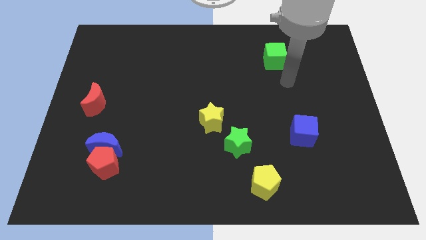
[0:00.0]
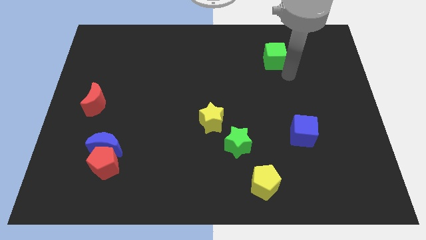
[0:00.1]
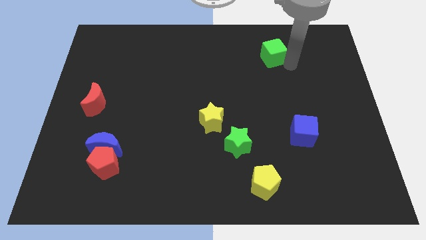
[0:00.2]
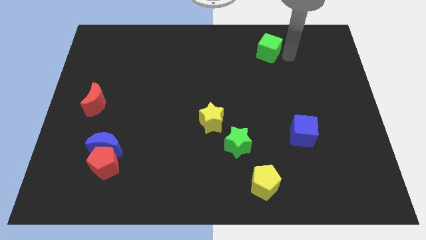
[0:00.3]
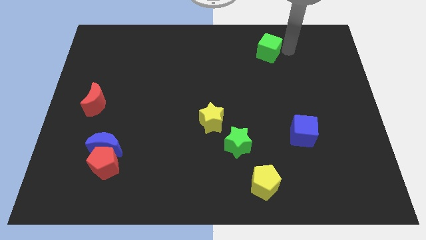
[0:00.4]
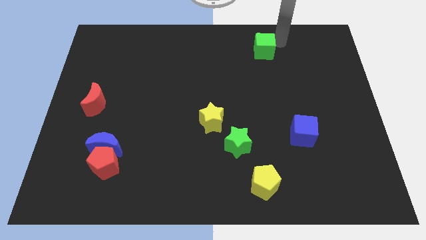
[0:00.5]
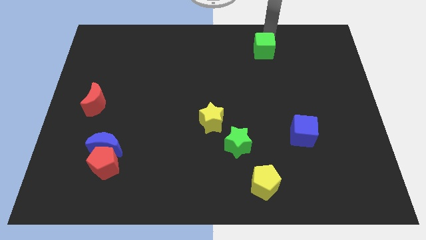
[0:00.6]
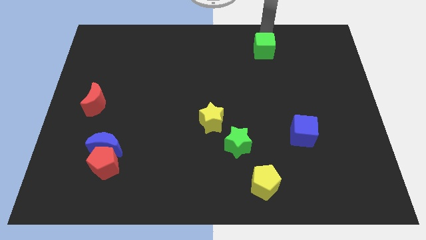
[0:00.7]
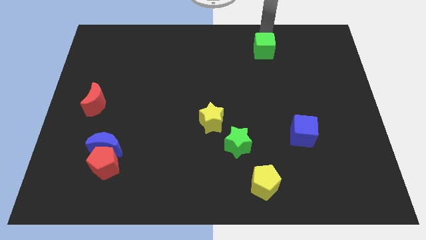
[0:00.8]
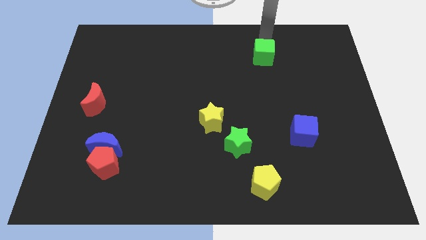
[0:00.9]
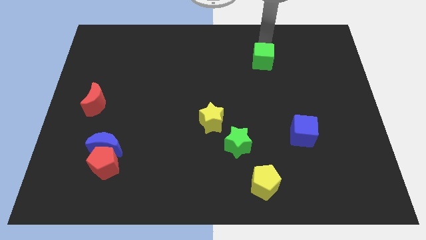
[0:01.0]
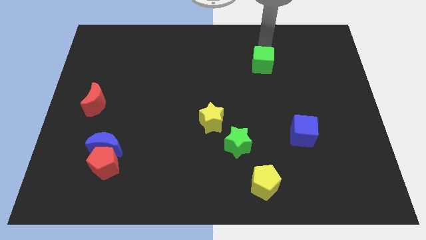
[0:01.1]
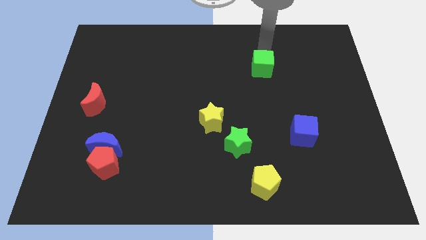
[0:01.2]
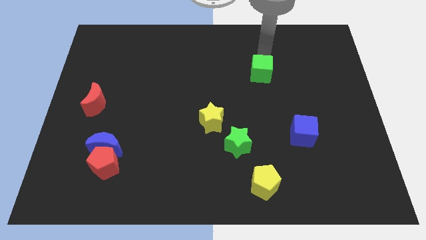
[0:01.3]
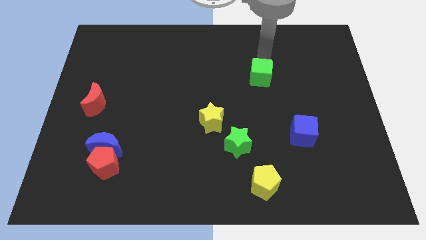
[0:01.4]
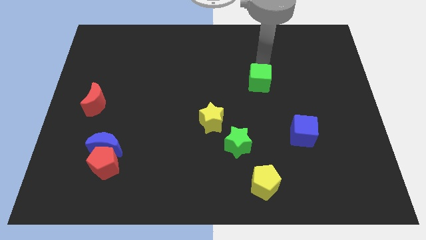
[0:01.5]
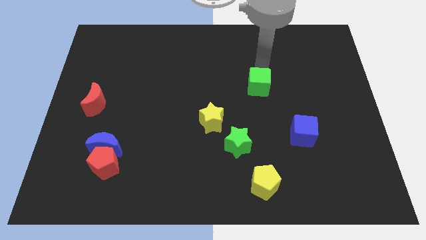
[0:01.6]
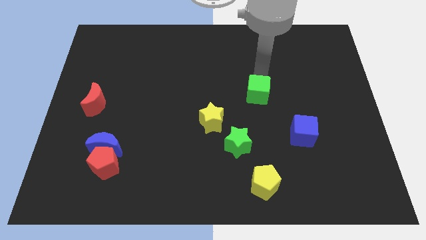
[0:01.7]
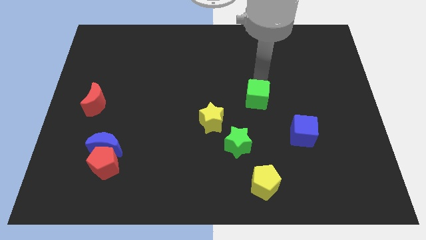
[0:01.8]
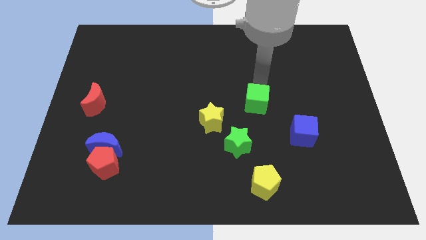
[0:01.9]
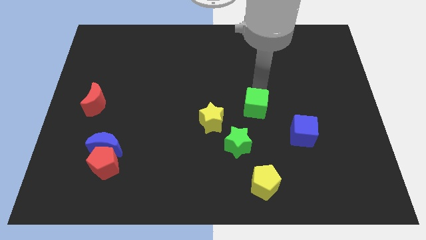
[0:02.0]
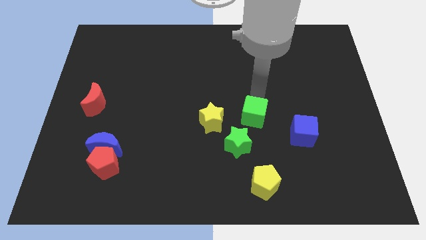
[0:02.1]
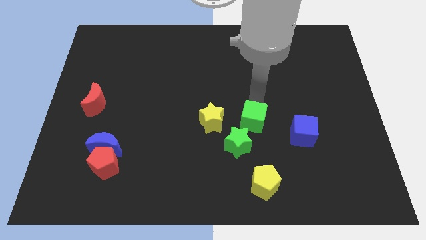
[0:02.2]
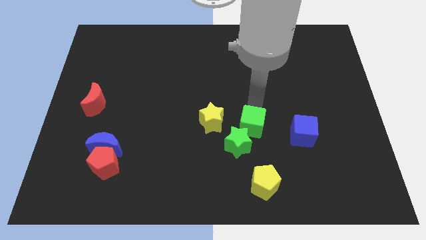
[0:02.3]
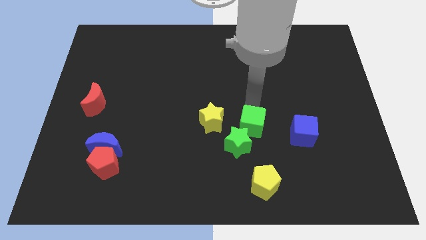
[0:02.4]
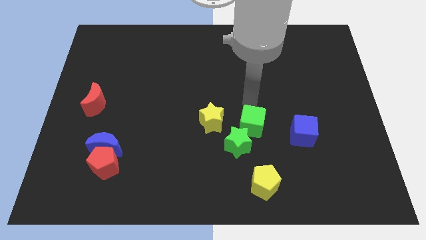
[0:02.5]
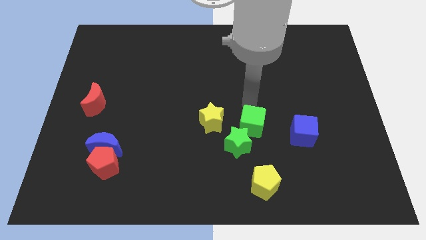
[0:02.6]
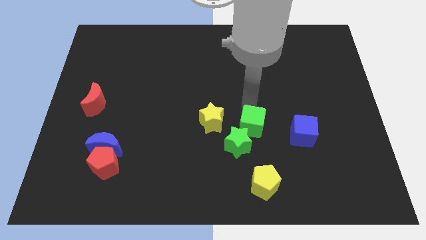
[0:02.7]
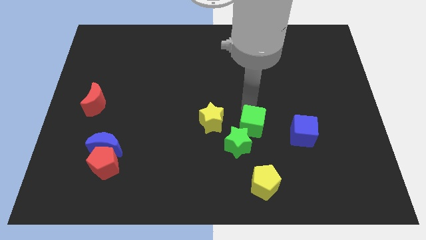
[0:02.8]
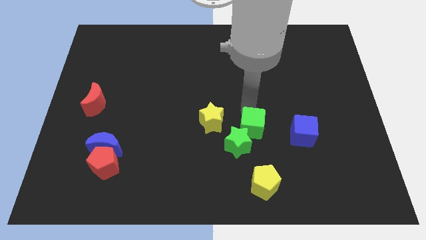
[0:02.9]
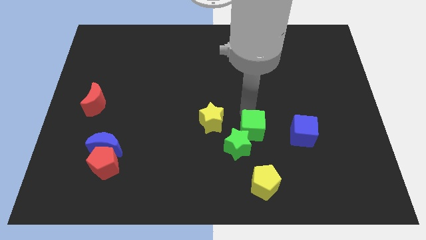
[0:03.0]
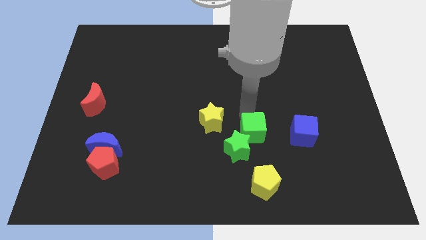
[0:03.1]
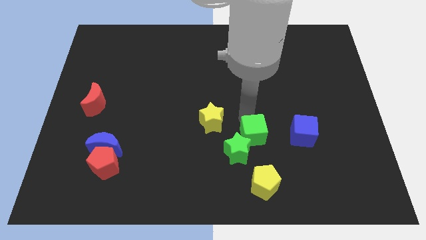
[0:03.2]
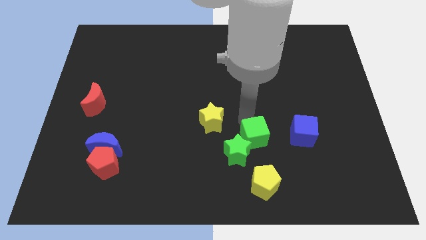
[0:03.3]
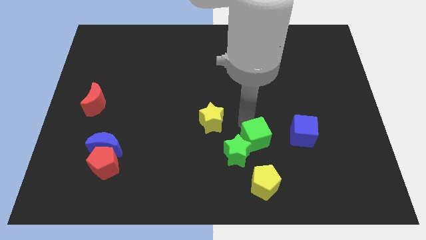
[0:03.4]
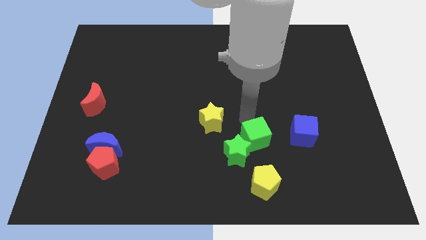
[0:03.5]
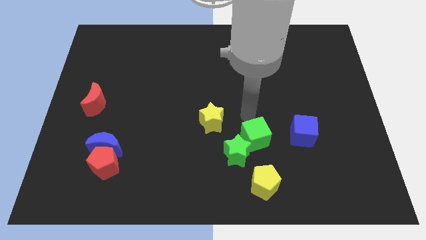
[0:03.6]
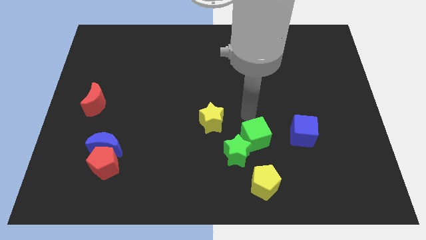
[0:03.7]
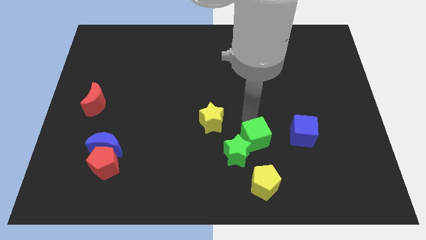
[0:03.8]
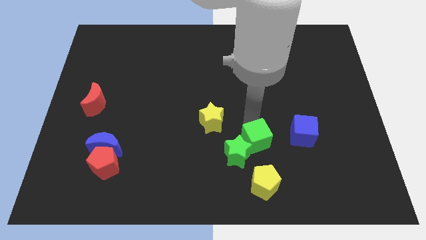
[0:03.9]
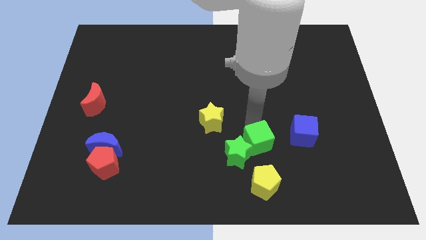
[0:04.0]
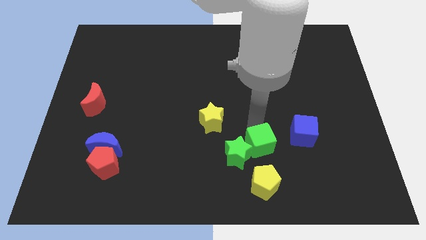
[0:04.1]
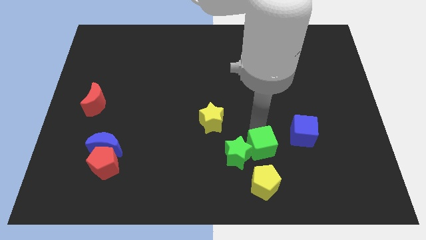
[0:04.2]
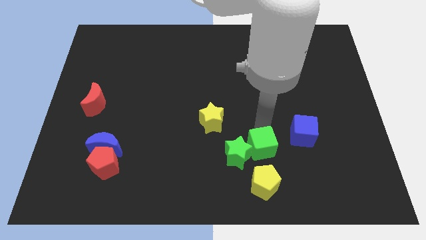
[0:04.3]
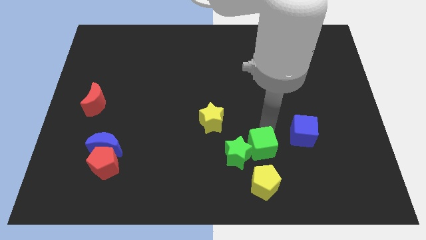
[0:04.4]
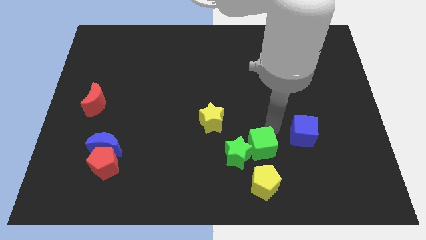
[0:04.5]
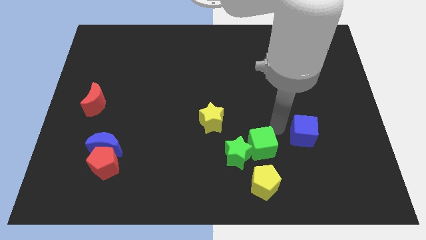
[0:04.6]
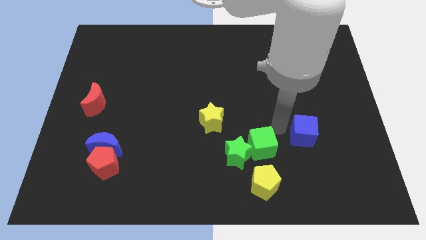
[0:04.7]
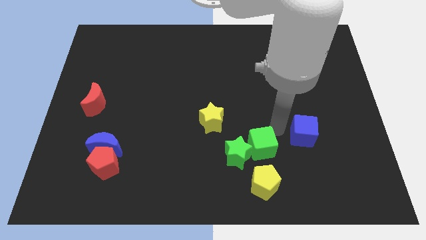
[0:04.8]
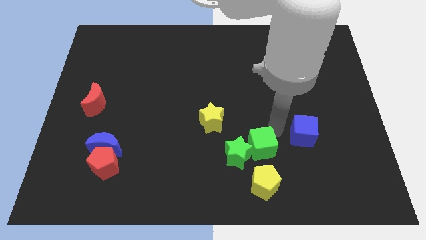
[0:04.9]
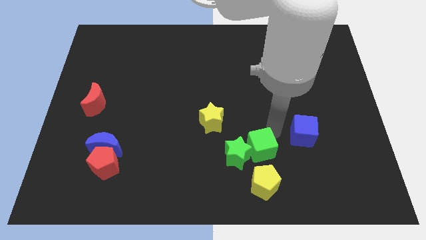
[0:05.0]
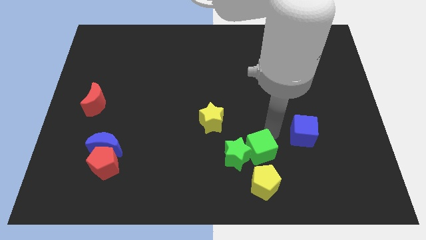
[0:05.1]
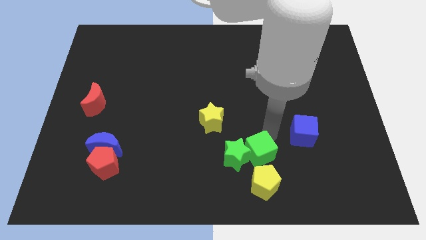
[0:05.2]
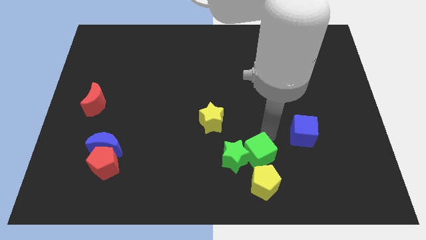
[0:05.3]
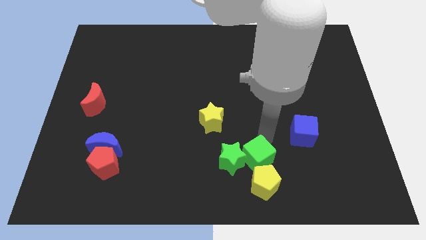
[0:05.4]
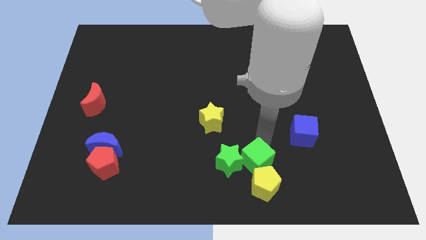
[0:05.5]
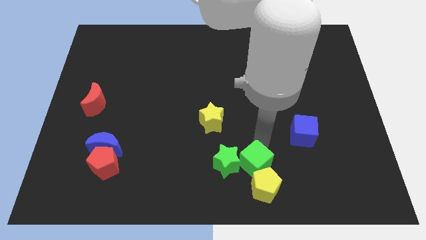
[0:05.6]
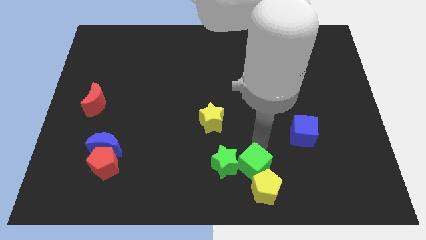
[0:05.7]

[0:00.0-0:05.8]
slide the green cube to the bottom

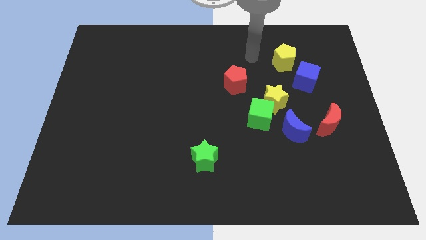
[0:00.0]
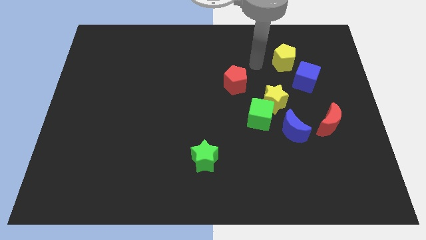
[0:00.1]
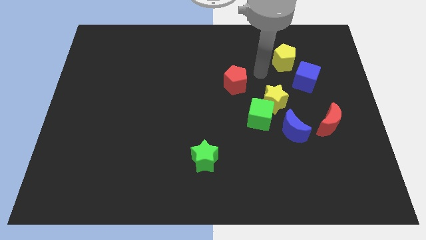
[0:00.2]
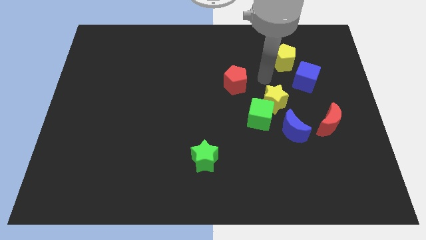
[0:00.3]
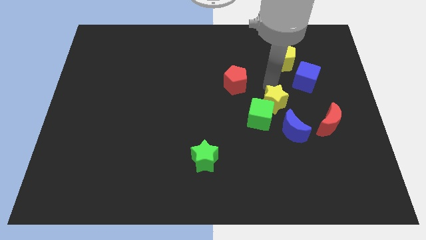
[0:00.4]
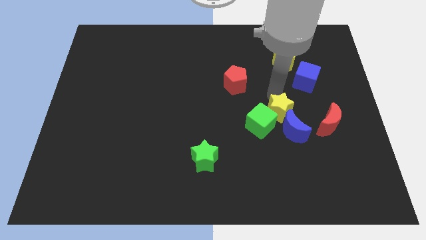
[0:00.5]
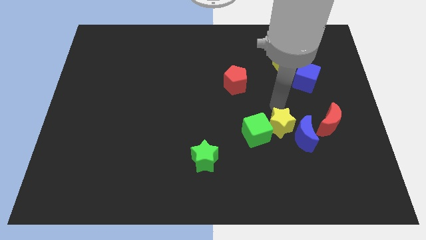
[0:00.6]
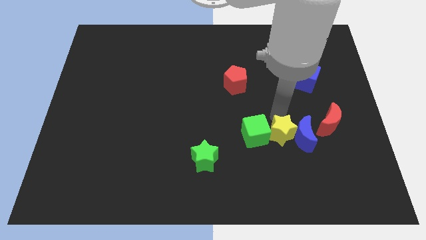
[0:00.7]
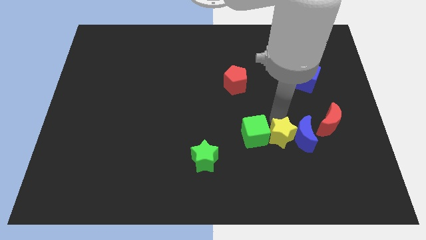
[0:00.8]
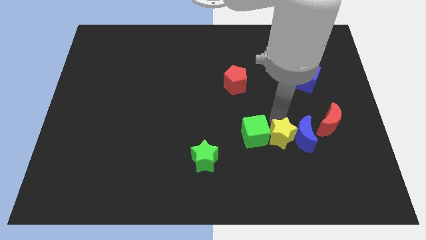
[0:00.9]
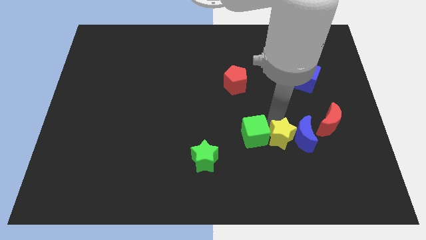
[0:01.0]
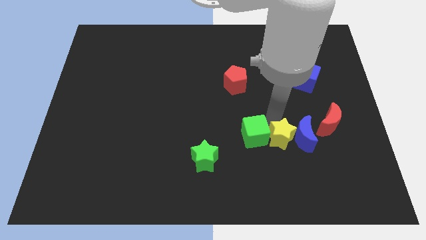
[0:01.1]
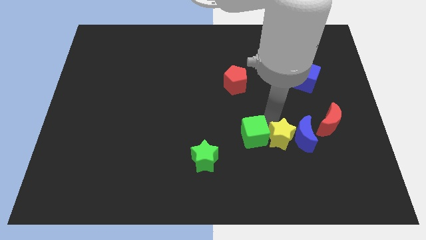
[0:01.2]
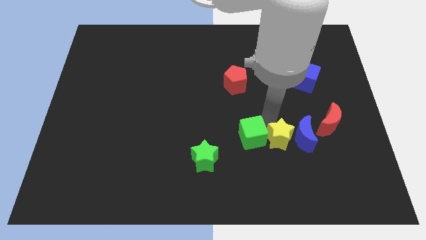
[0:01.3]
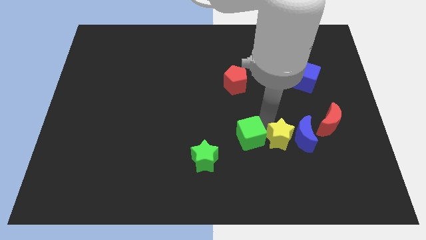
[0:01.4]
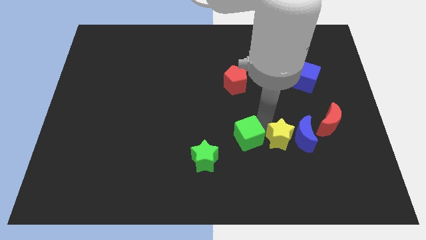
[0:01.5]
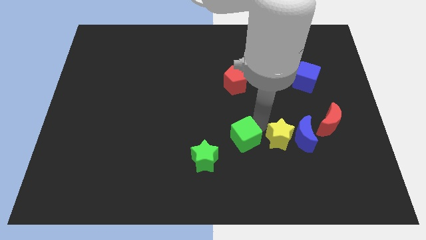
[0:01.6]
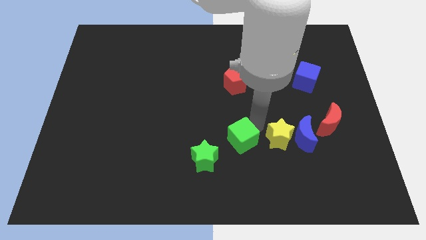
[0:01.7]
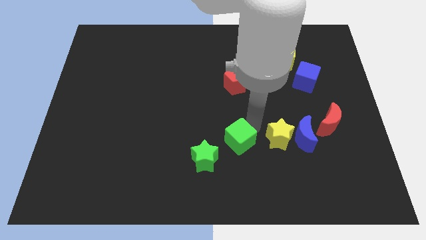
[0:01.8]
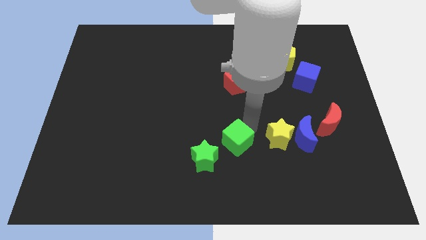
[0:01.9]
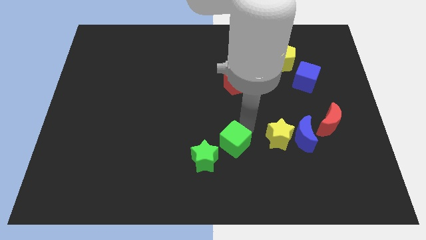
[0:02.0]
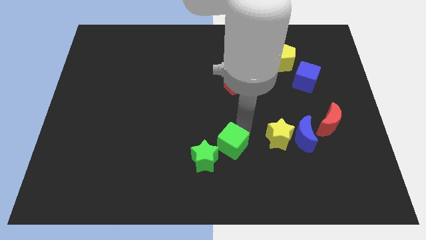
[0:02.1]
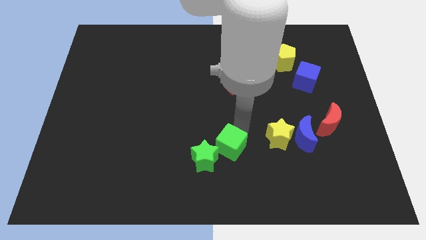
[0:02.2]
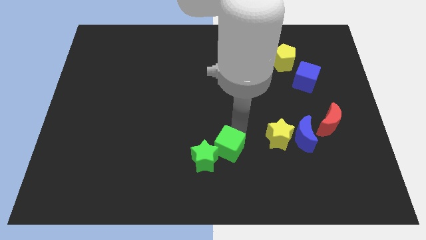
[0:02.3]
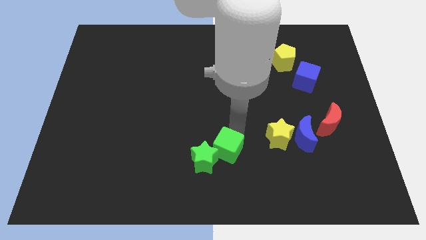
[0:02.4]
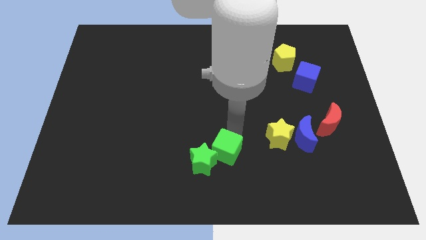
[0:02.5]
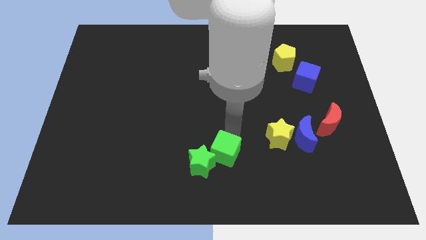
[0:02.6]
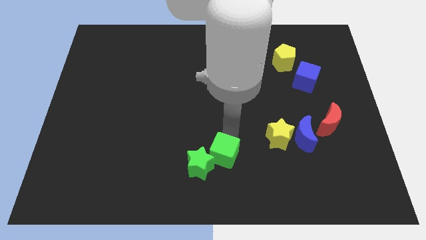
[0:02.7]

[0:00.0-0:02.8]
put the green cube to the bottom side
